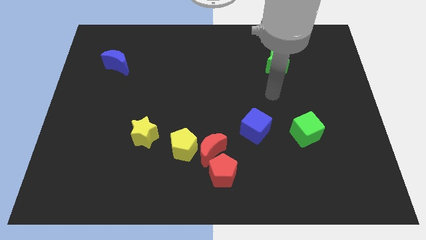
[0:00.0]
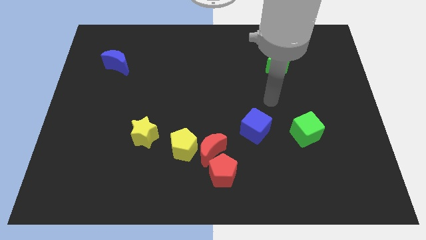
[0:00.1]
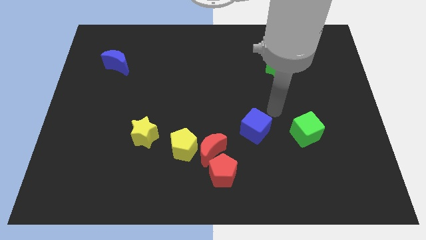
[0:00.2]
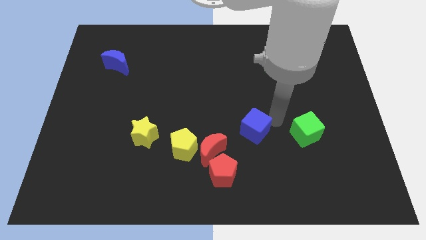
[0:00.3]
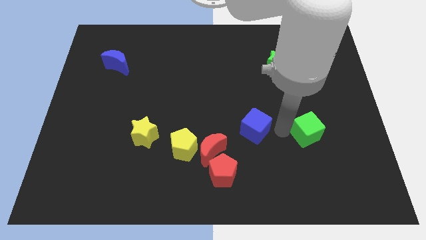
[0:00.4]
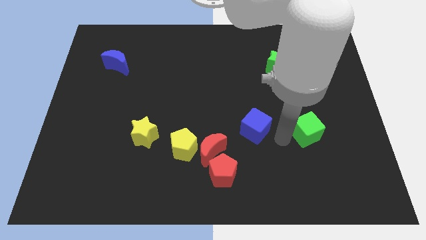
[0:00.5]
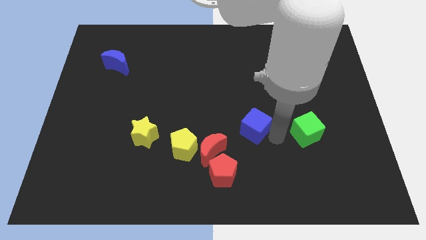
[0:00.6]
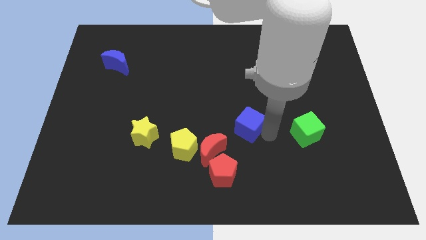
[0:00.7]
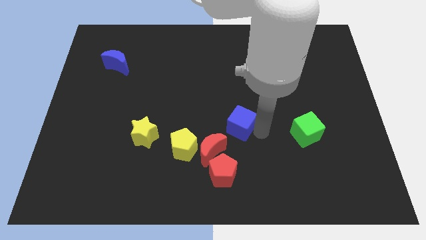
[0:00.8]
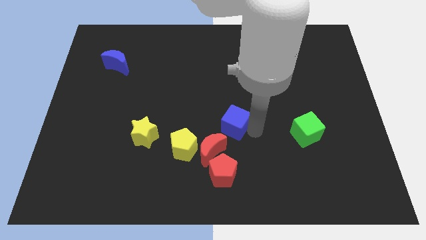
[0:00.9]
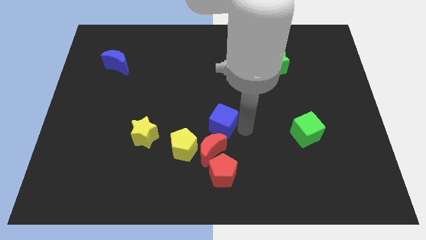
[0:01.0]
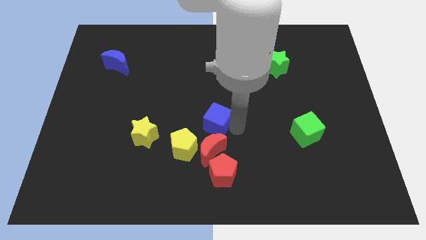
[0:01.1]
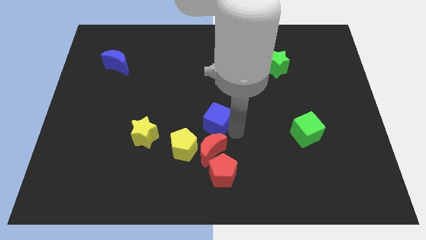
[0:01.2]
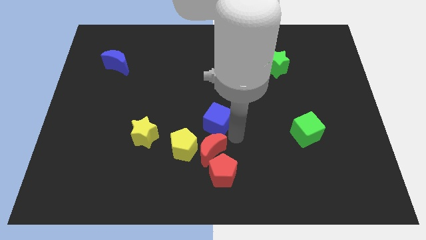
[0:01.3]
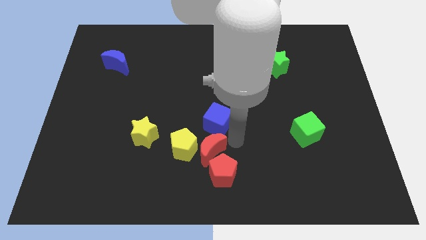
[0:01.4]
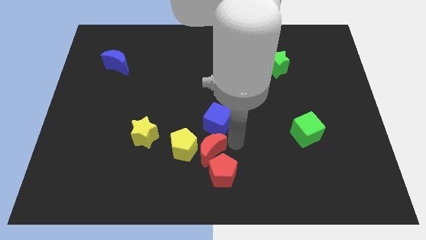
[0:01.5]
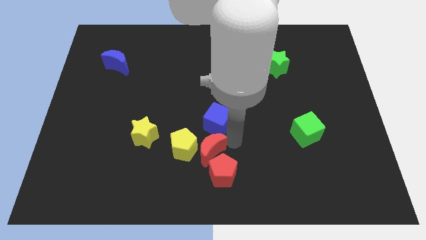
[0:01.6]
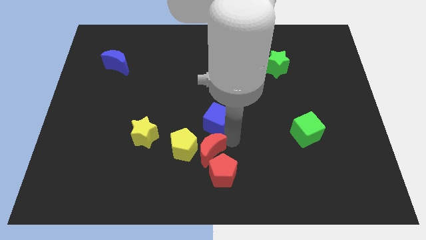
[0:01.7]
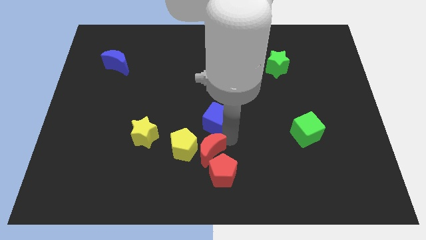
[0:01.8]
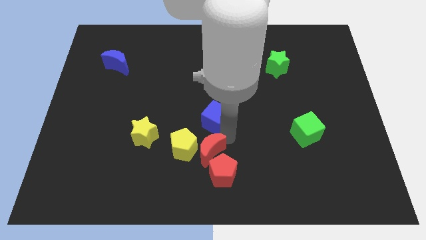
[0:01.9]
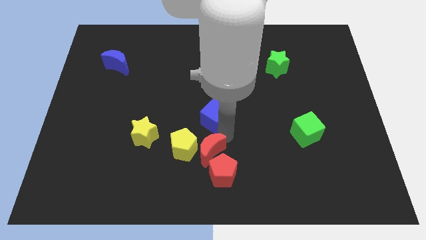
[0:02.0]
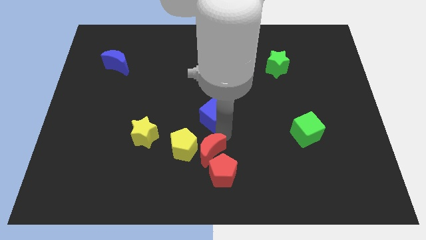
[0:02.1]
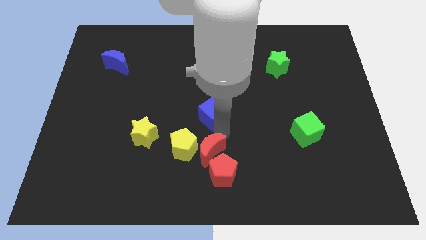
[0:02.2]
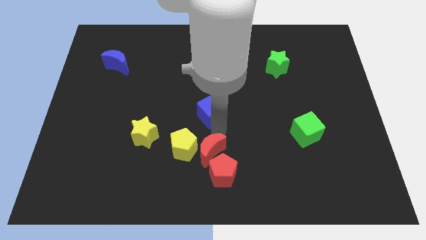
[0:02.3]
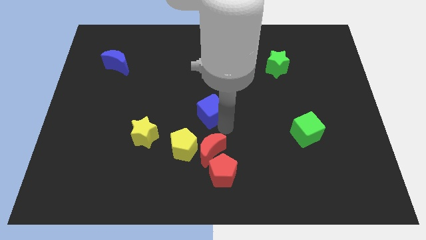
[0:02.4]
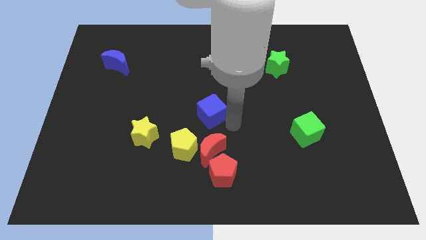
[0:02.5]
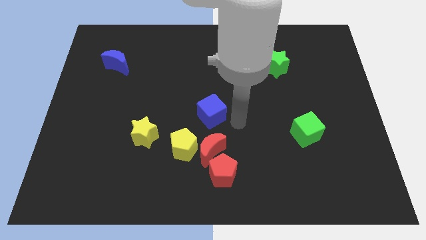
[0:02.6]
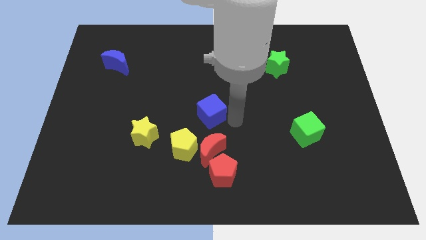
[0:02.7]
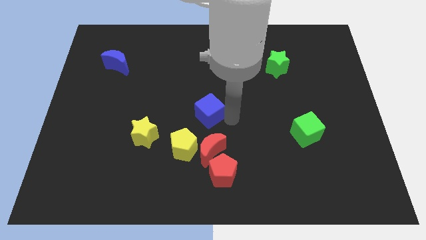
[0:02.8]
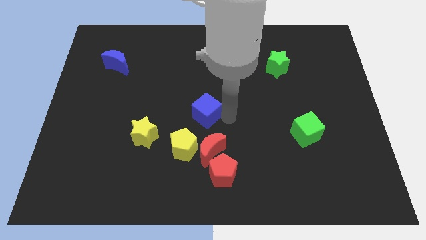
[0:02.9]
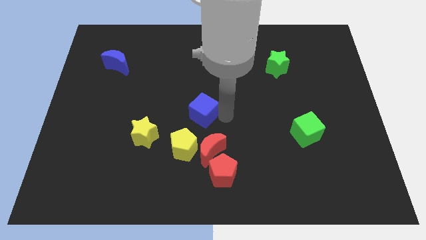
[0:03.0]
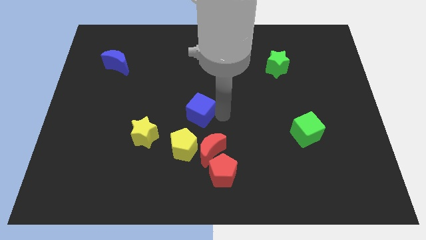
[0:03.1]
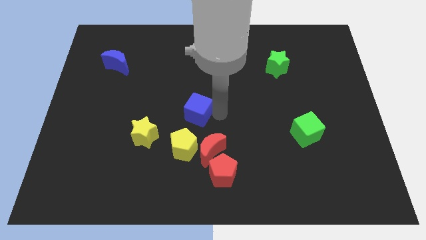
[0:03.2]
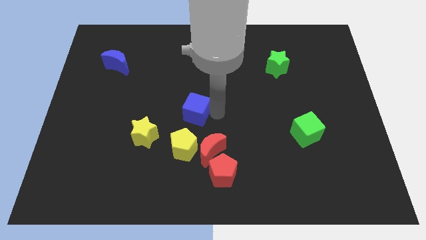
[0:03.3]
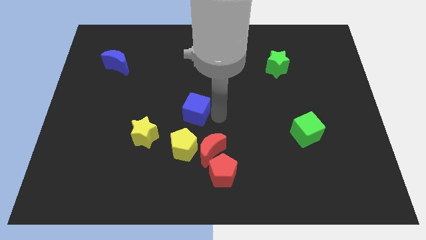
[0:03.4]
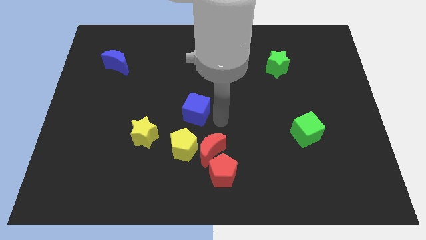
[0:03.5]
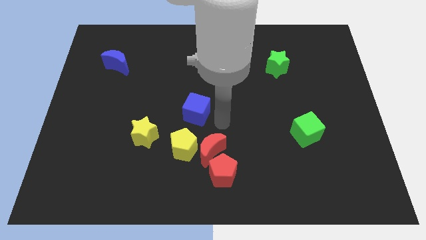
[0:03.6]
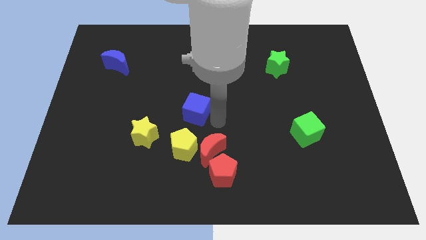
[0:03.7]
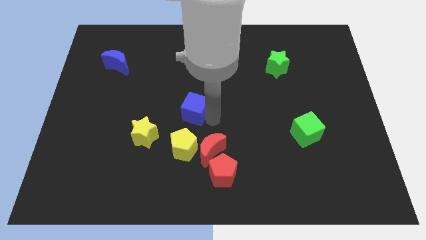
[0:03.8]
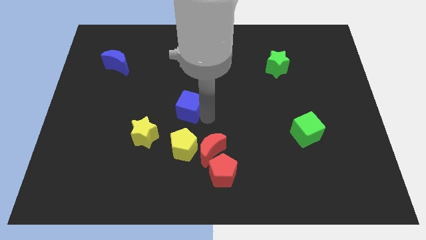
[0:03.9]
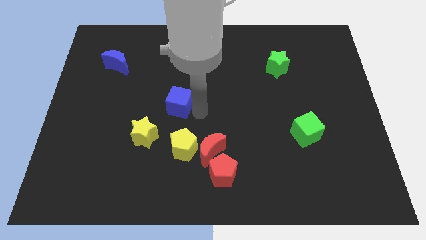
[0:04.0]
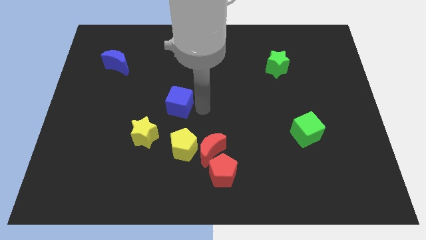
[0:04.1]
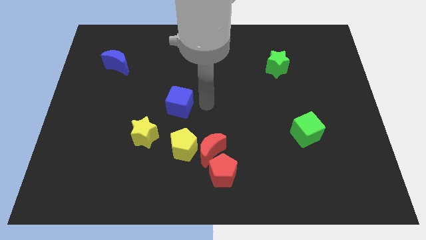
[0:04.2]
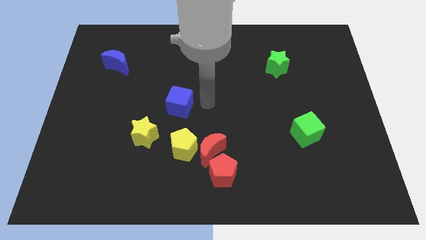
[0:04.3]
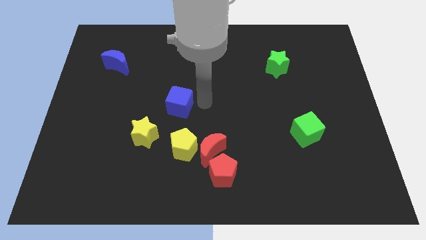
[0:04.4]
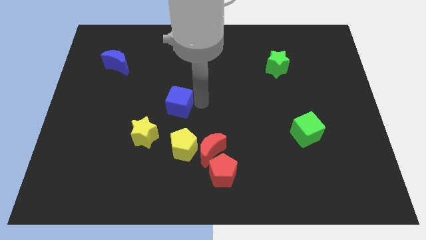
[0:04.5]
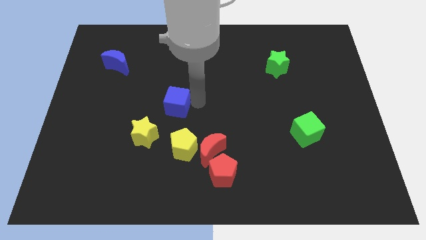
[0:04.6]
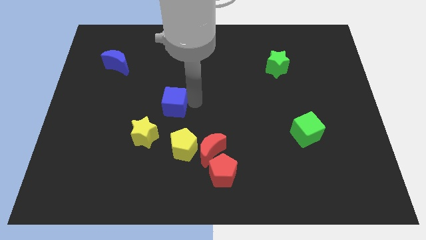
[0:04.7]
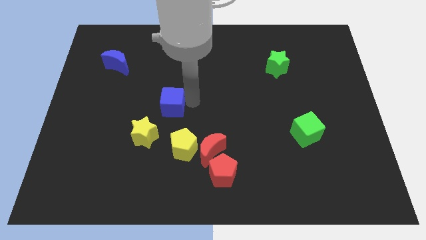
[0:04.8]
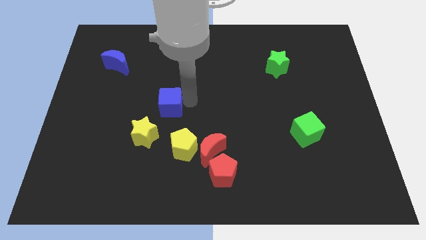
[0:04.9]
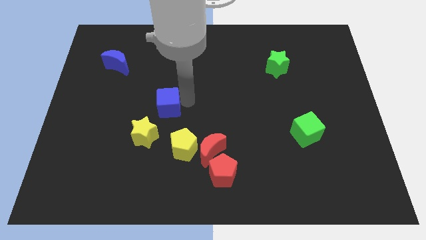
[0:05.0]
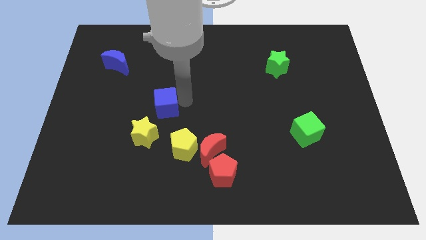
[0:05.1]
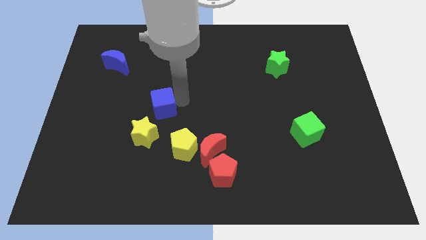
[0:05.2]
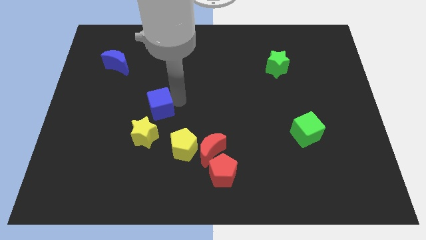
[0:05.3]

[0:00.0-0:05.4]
slide the blue cube to the left

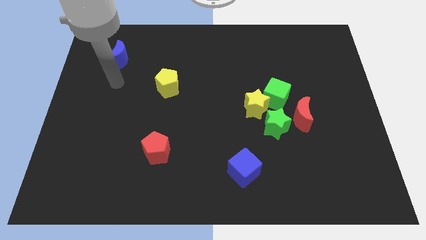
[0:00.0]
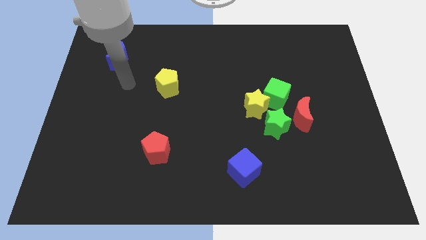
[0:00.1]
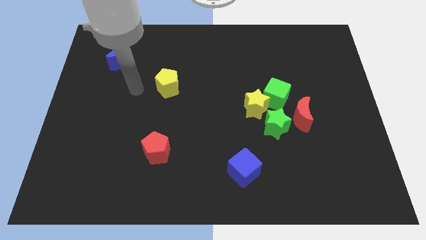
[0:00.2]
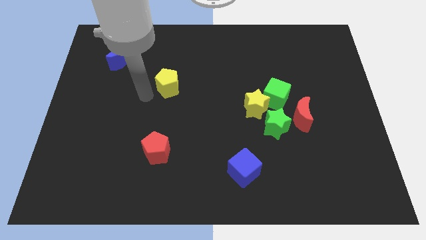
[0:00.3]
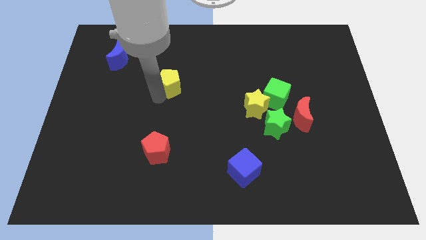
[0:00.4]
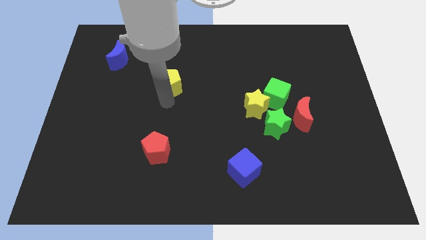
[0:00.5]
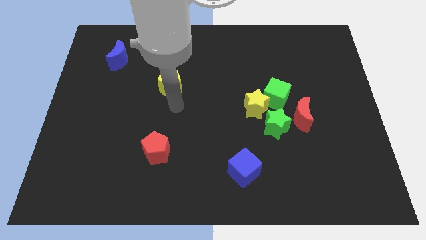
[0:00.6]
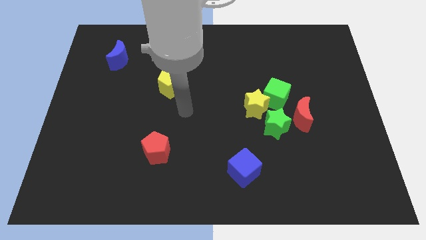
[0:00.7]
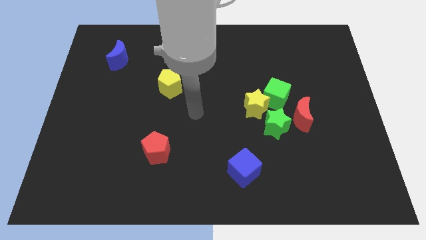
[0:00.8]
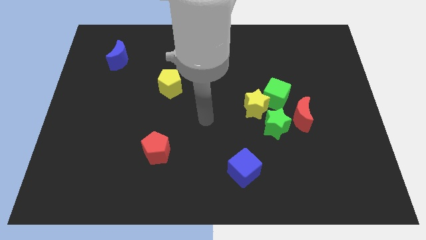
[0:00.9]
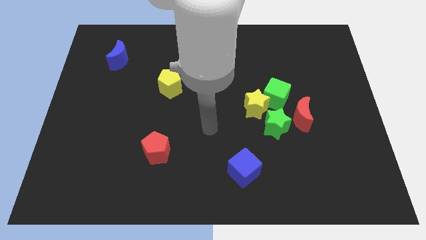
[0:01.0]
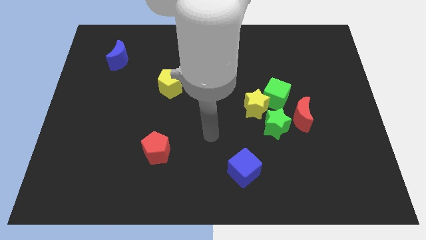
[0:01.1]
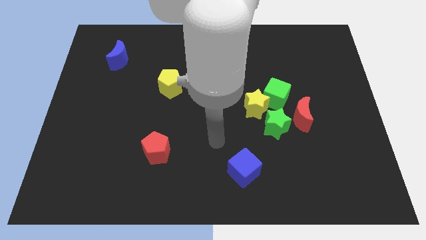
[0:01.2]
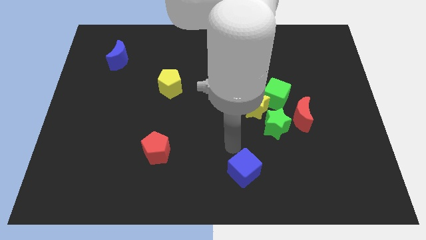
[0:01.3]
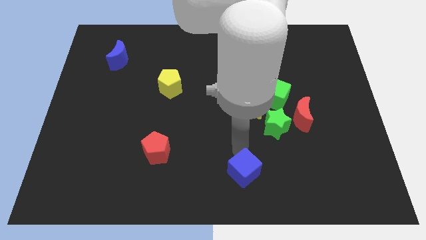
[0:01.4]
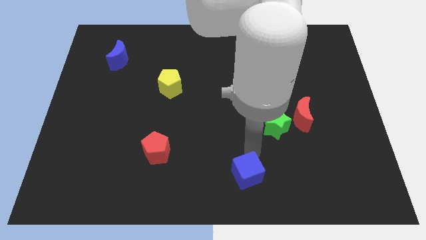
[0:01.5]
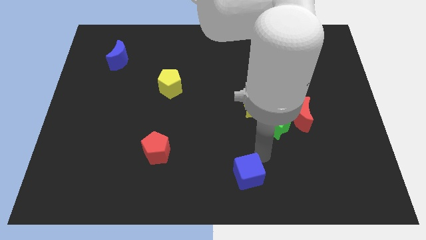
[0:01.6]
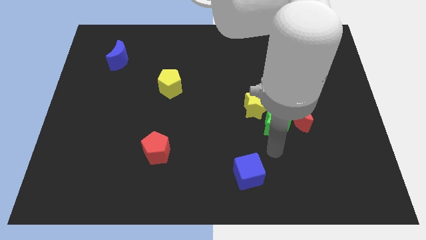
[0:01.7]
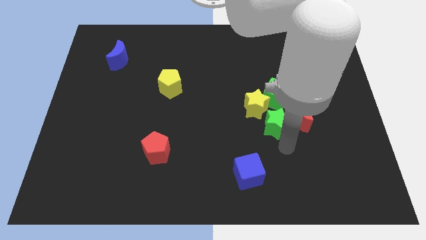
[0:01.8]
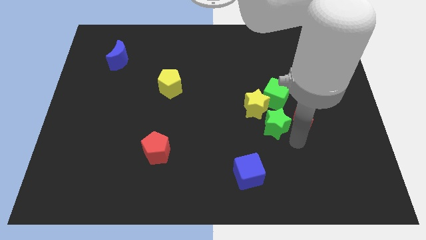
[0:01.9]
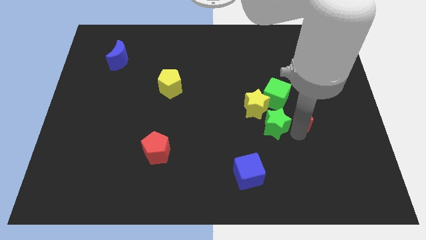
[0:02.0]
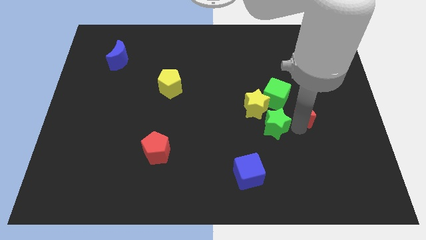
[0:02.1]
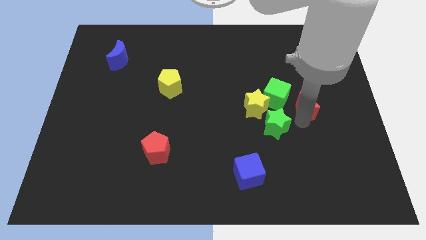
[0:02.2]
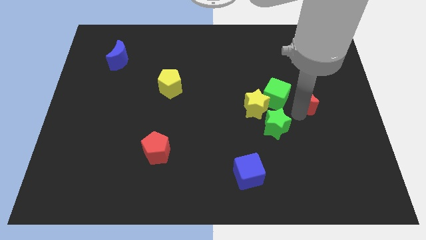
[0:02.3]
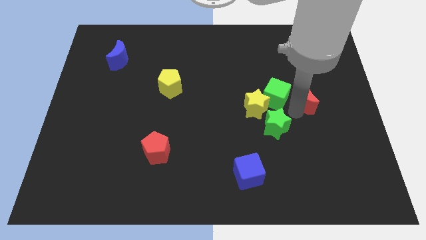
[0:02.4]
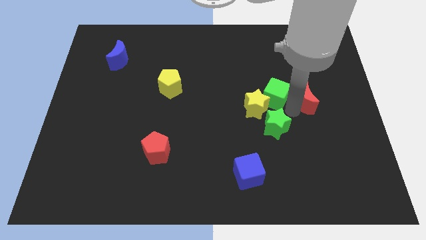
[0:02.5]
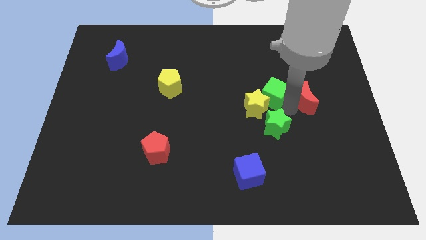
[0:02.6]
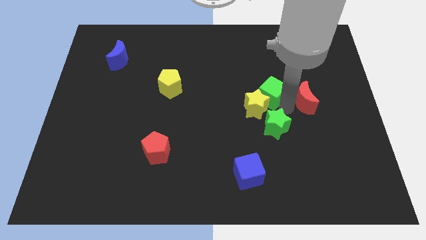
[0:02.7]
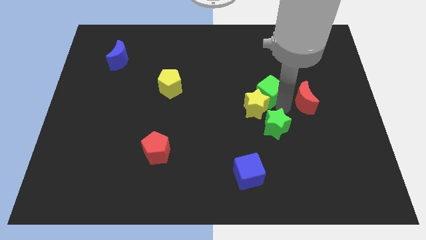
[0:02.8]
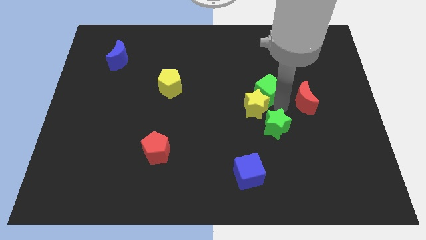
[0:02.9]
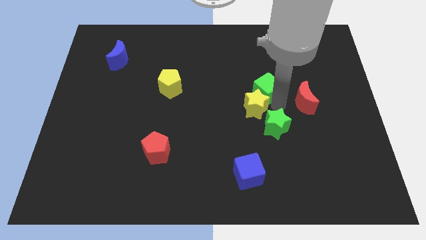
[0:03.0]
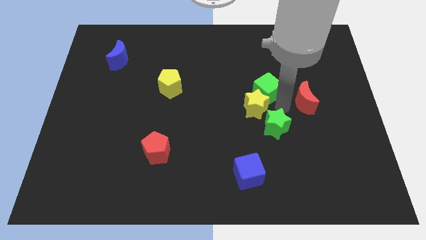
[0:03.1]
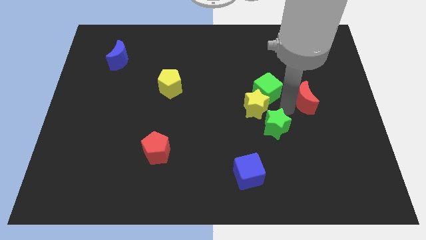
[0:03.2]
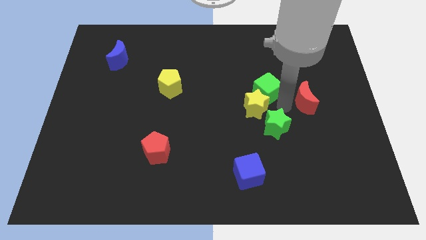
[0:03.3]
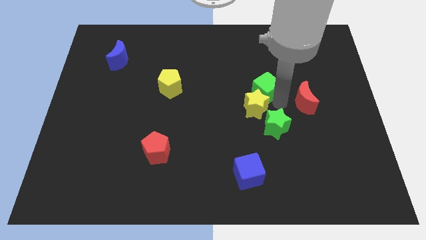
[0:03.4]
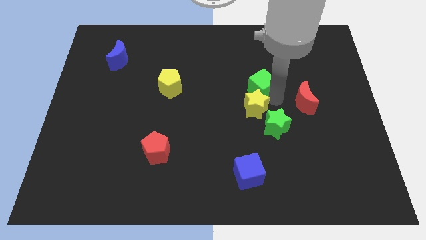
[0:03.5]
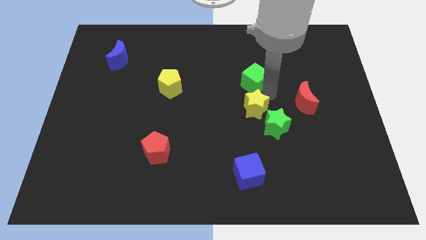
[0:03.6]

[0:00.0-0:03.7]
slightly slide the green cube diagonally upwards and to the left
